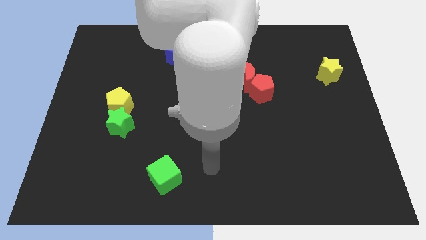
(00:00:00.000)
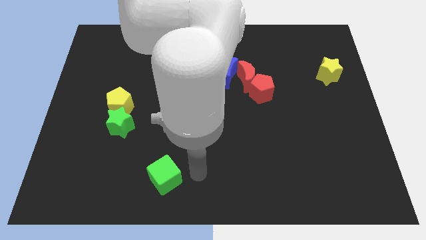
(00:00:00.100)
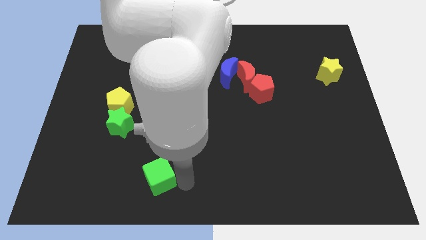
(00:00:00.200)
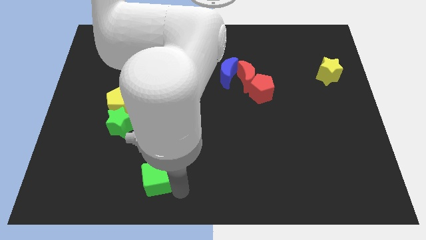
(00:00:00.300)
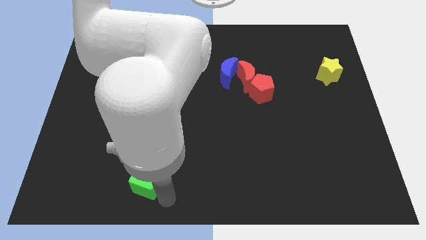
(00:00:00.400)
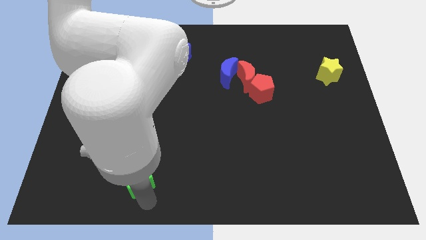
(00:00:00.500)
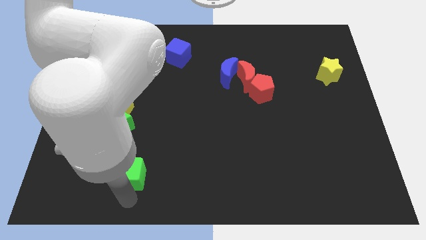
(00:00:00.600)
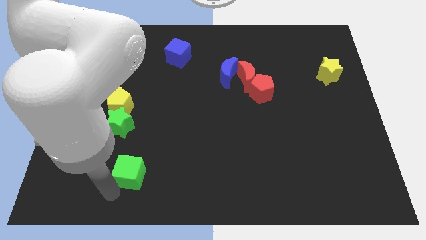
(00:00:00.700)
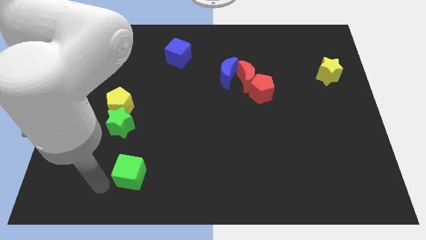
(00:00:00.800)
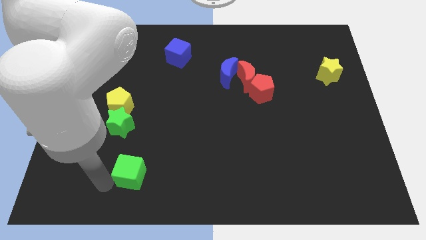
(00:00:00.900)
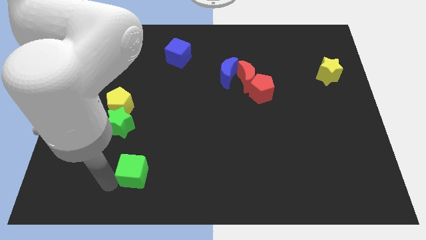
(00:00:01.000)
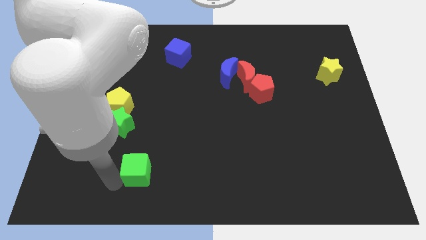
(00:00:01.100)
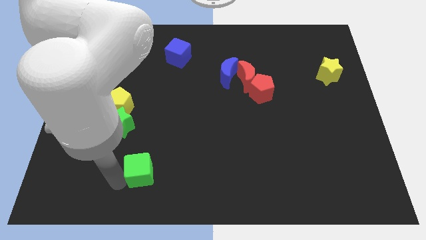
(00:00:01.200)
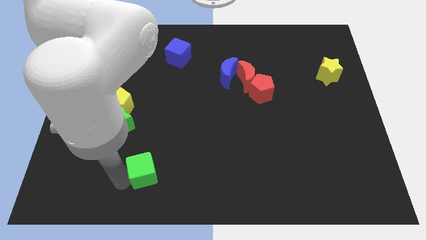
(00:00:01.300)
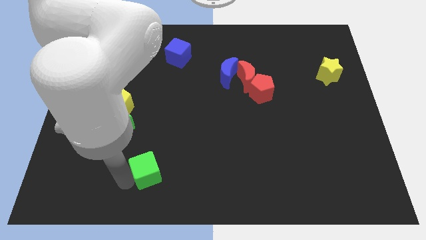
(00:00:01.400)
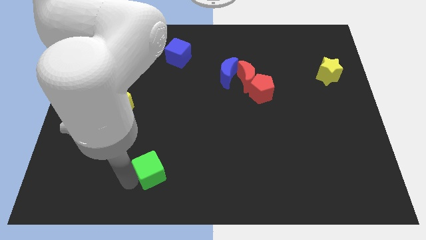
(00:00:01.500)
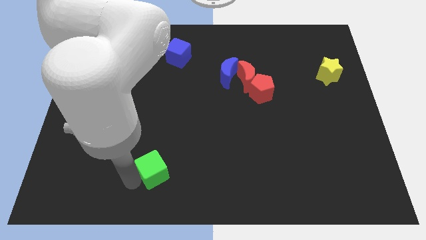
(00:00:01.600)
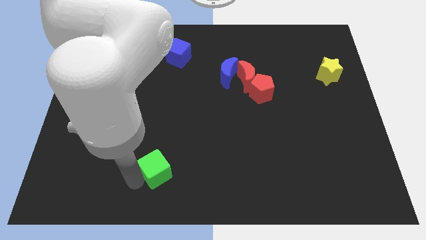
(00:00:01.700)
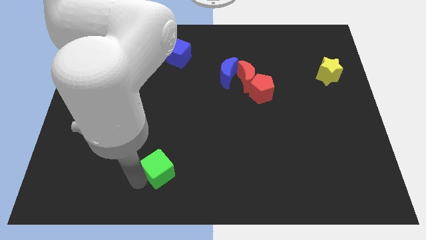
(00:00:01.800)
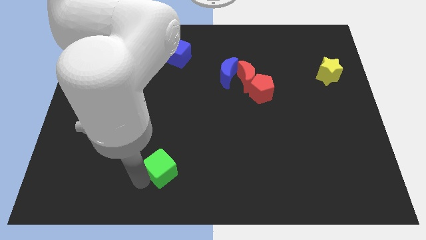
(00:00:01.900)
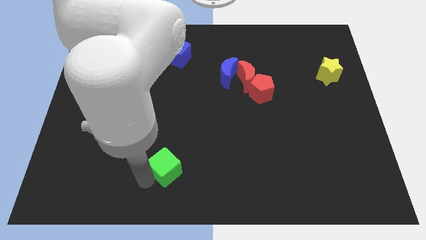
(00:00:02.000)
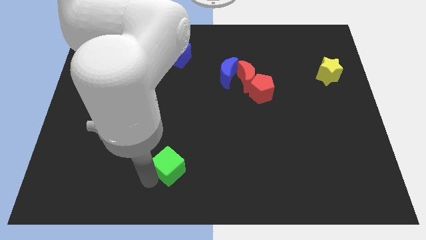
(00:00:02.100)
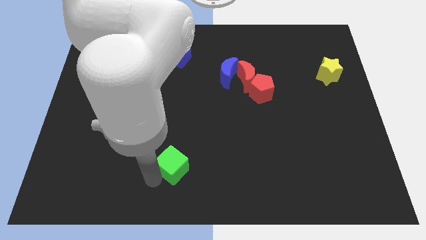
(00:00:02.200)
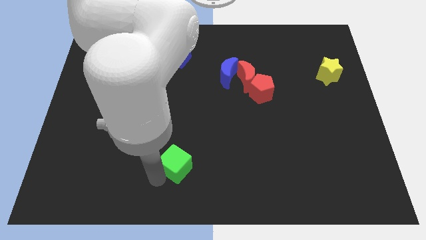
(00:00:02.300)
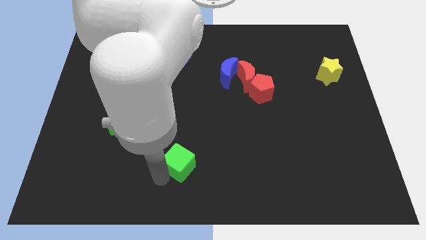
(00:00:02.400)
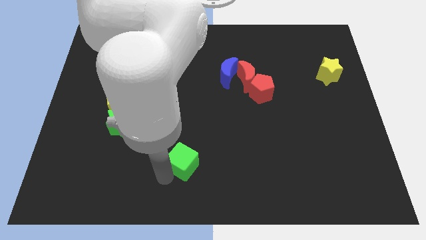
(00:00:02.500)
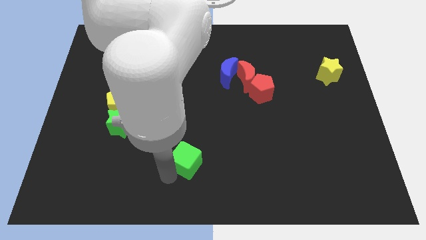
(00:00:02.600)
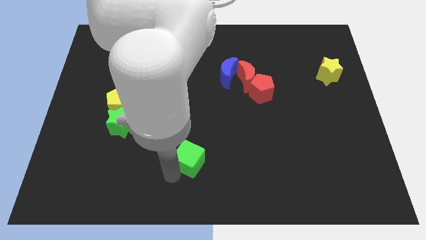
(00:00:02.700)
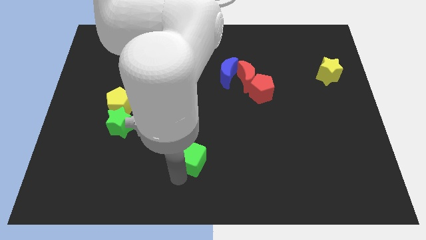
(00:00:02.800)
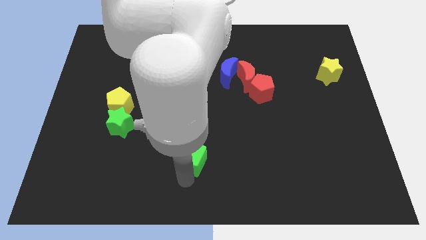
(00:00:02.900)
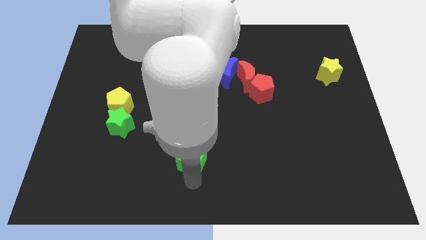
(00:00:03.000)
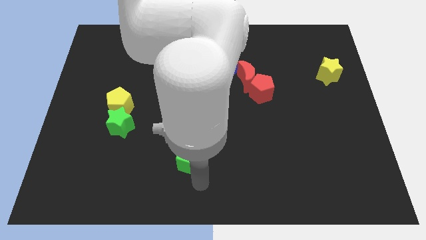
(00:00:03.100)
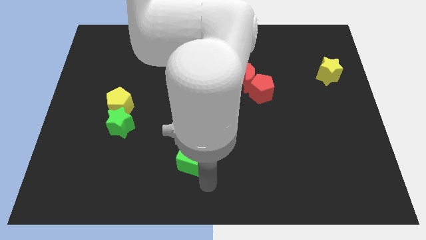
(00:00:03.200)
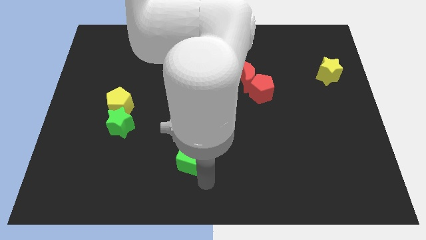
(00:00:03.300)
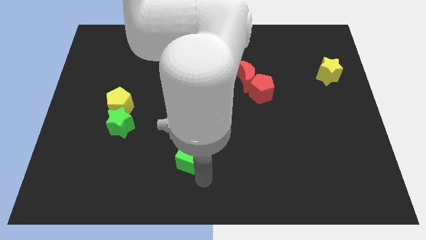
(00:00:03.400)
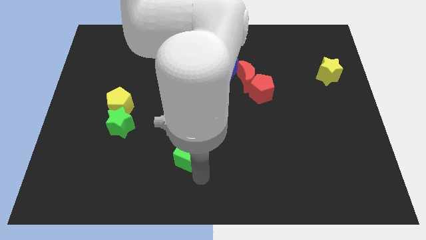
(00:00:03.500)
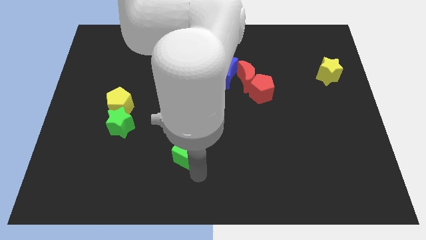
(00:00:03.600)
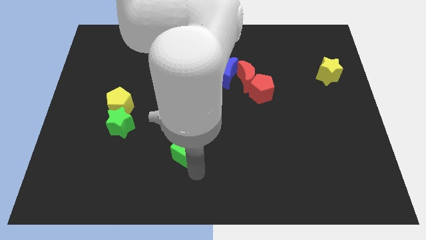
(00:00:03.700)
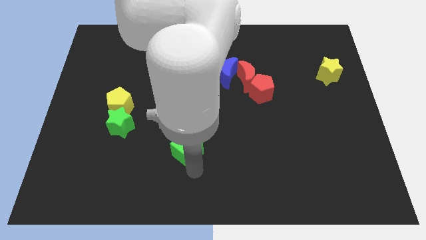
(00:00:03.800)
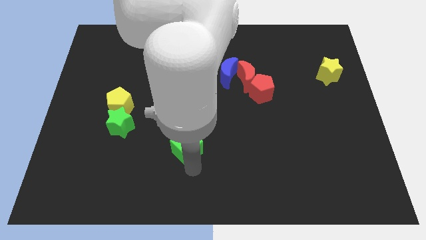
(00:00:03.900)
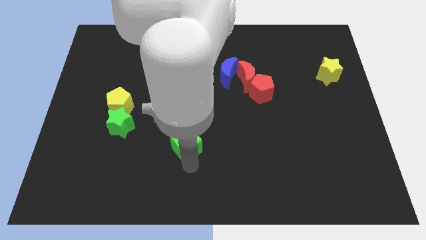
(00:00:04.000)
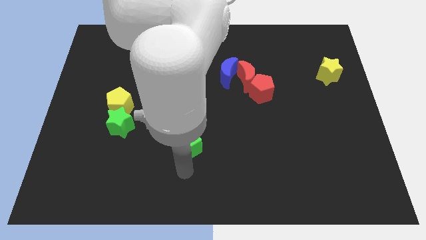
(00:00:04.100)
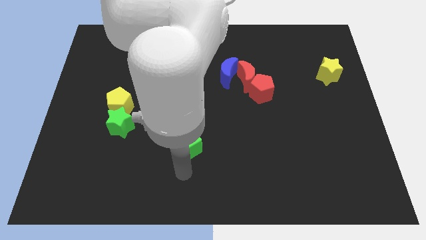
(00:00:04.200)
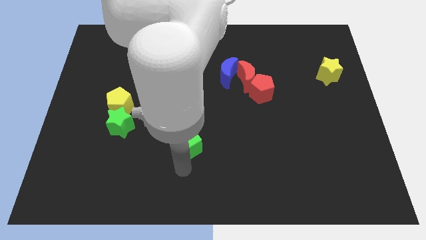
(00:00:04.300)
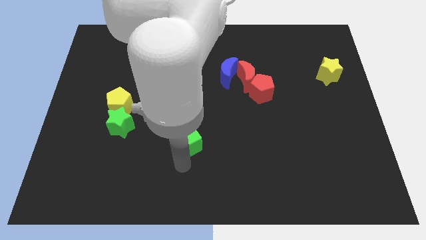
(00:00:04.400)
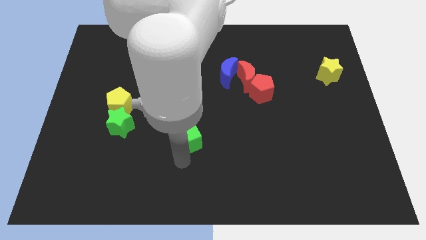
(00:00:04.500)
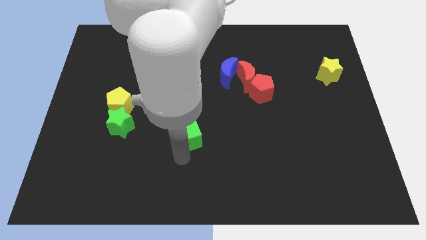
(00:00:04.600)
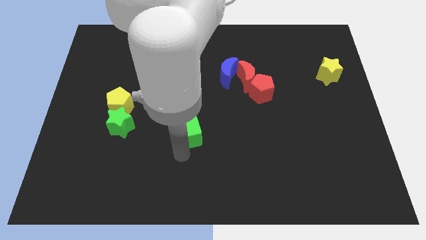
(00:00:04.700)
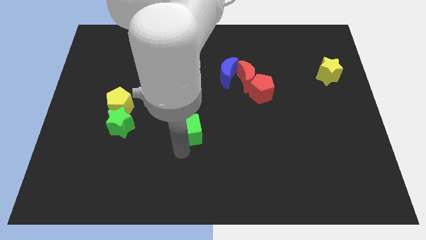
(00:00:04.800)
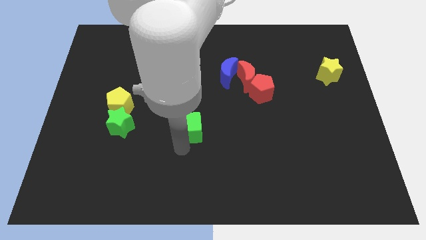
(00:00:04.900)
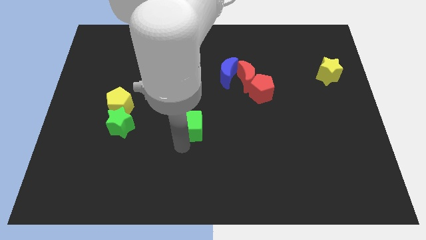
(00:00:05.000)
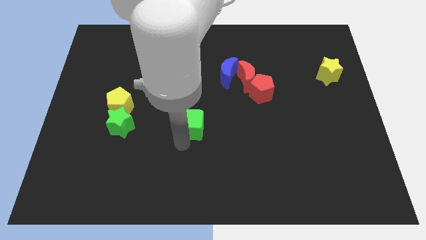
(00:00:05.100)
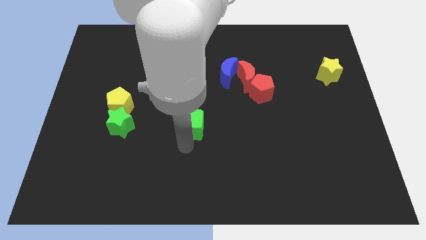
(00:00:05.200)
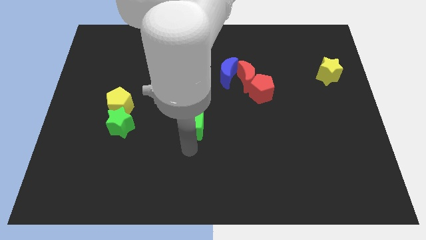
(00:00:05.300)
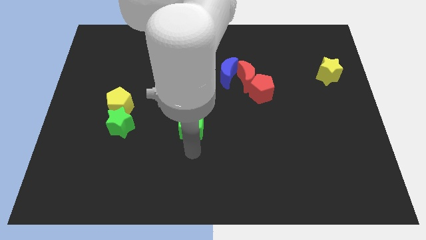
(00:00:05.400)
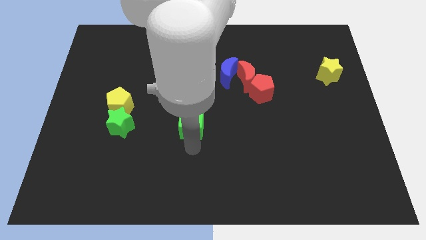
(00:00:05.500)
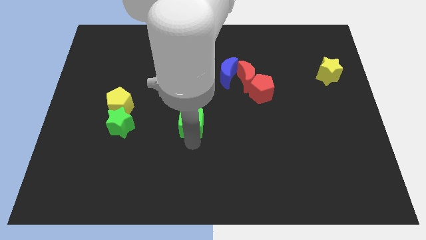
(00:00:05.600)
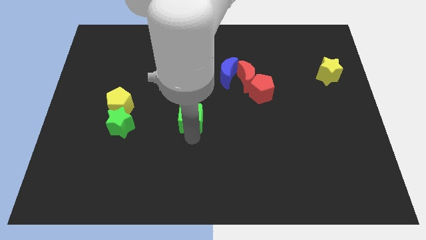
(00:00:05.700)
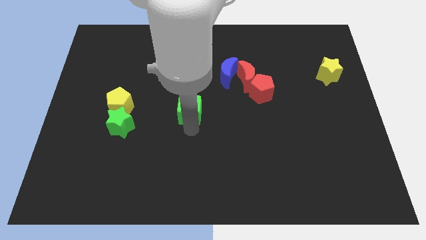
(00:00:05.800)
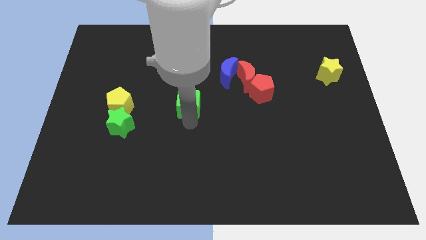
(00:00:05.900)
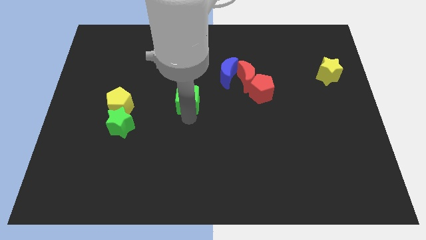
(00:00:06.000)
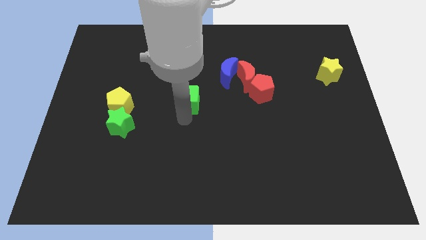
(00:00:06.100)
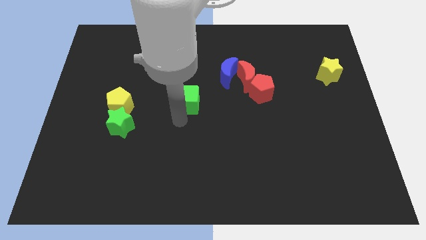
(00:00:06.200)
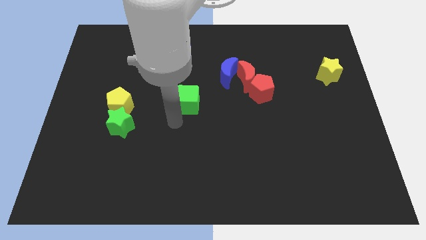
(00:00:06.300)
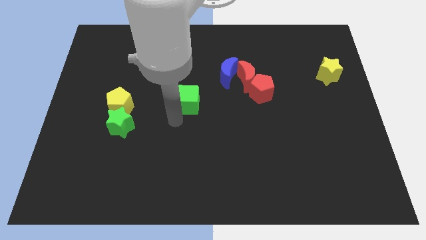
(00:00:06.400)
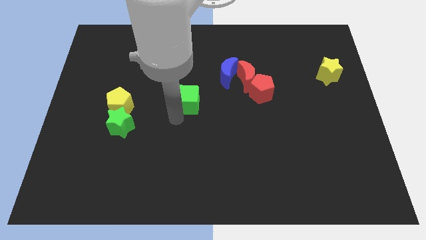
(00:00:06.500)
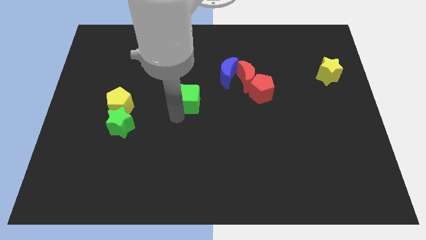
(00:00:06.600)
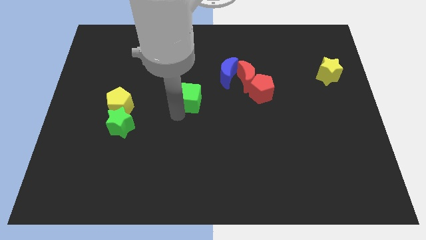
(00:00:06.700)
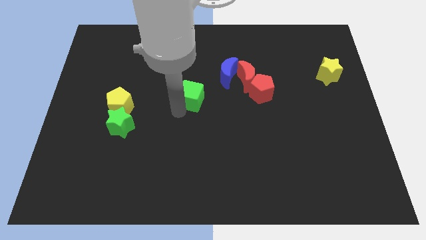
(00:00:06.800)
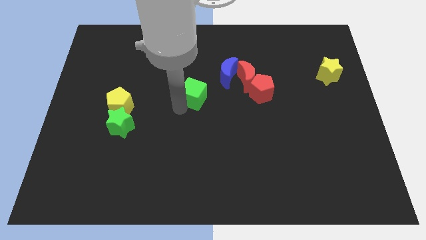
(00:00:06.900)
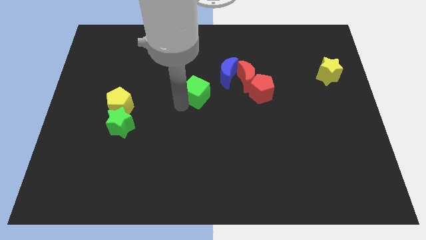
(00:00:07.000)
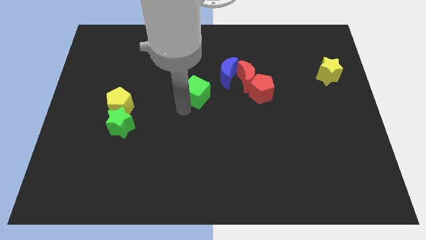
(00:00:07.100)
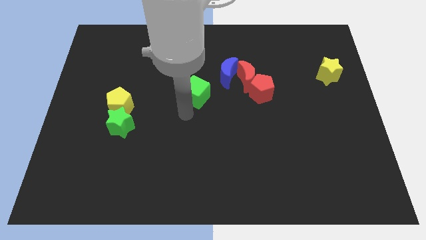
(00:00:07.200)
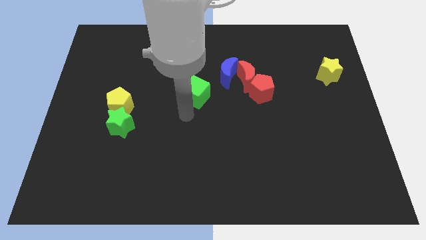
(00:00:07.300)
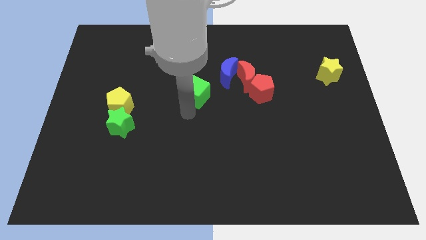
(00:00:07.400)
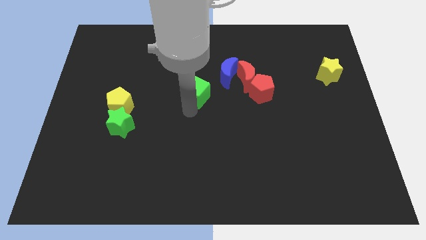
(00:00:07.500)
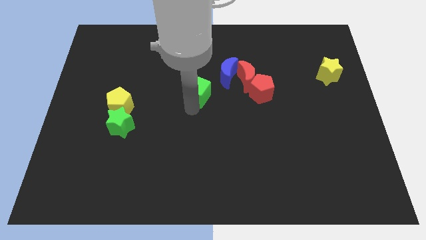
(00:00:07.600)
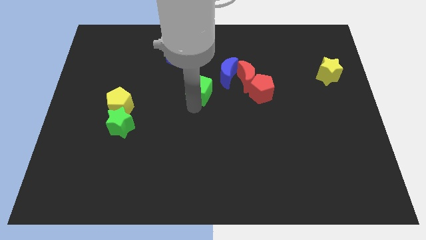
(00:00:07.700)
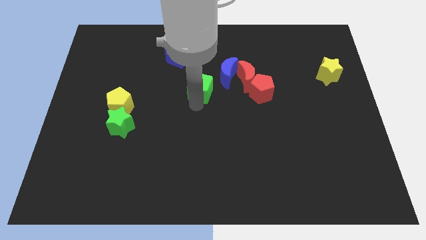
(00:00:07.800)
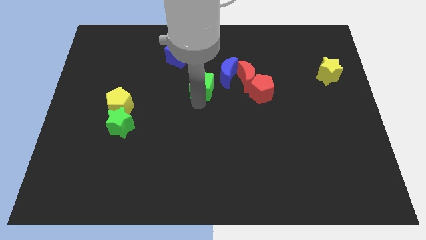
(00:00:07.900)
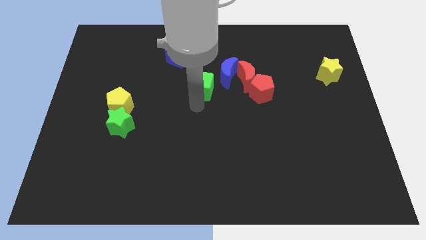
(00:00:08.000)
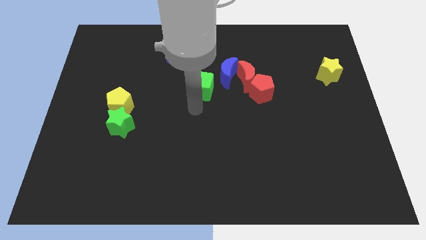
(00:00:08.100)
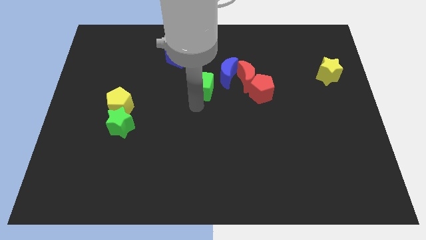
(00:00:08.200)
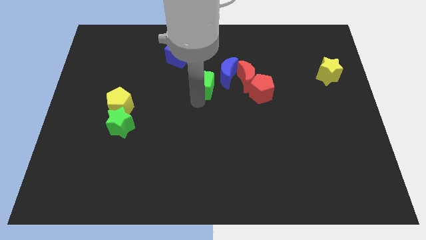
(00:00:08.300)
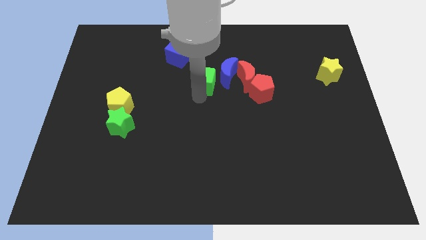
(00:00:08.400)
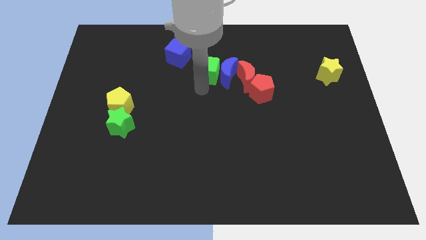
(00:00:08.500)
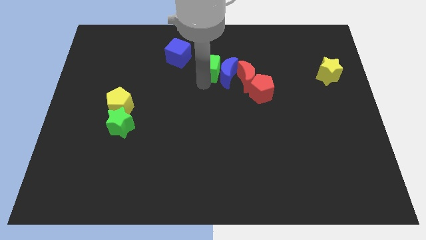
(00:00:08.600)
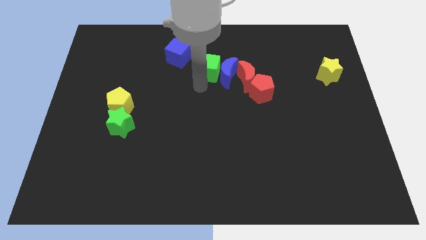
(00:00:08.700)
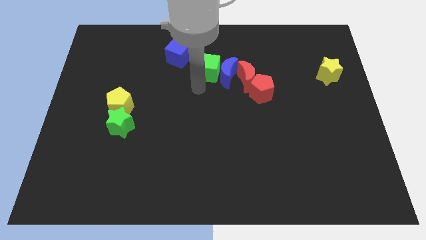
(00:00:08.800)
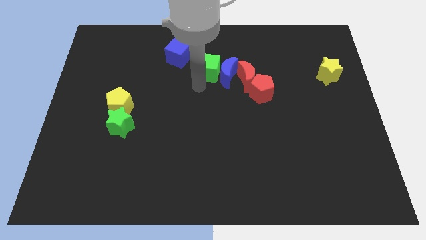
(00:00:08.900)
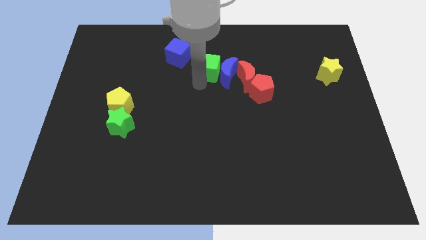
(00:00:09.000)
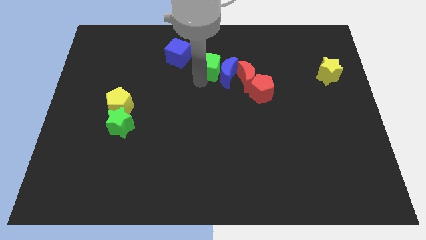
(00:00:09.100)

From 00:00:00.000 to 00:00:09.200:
move the green cube to the right side of the blue cube
